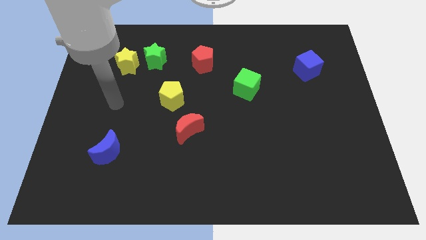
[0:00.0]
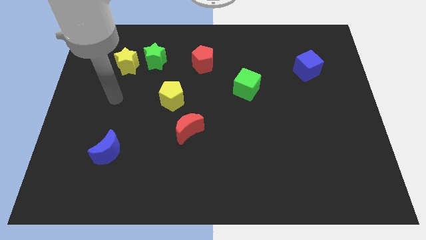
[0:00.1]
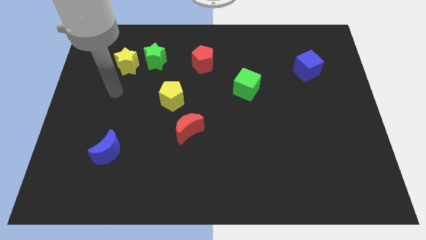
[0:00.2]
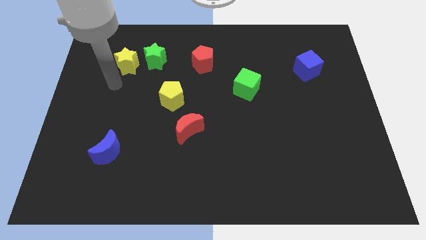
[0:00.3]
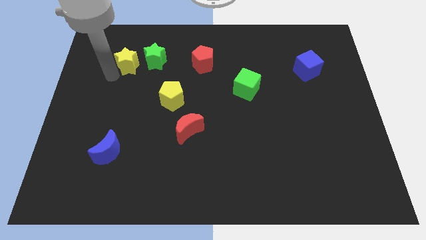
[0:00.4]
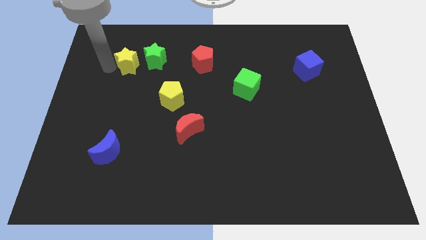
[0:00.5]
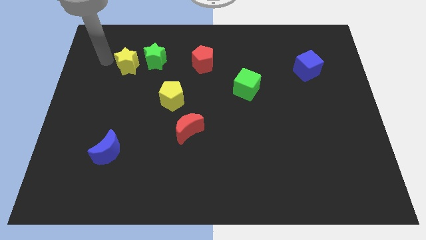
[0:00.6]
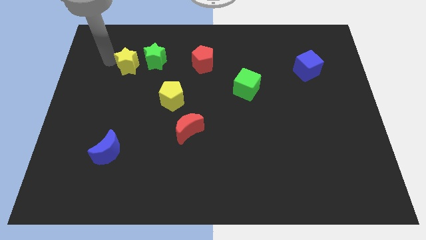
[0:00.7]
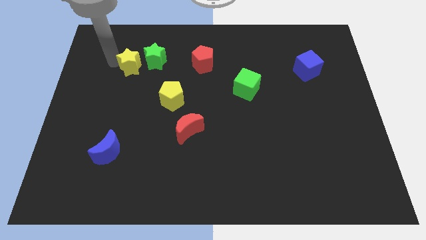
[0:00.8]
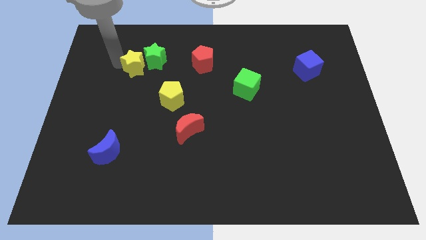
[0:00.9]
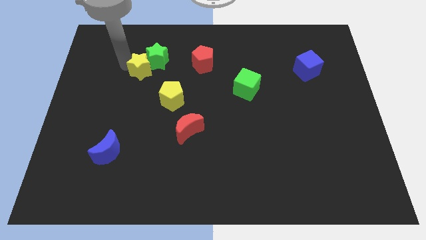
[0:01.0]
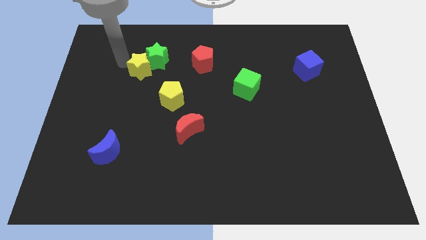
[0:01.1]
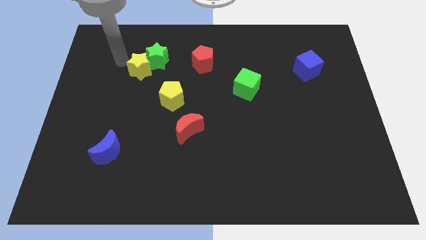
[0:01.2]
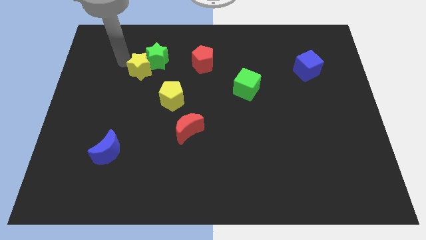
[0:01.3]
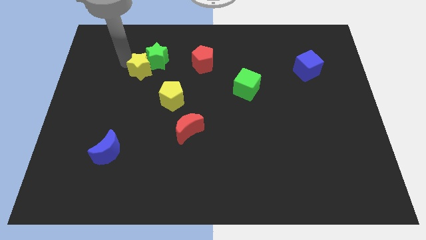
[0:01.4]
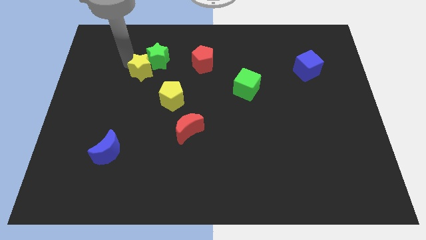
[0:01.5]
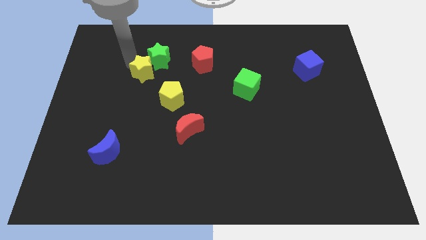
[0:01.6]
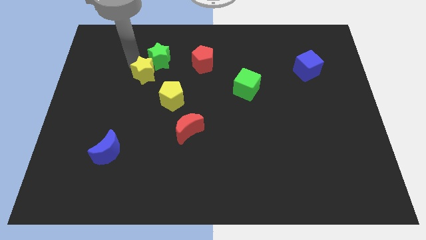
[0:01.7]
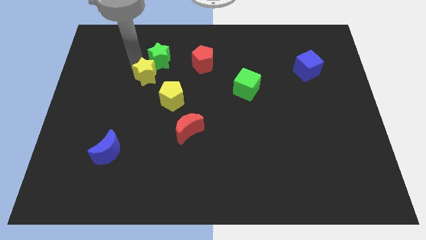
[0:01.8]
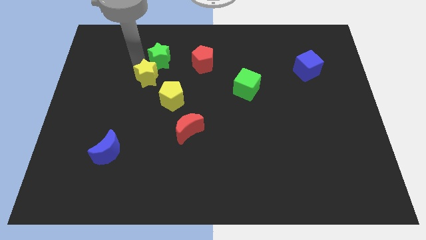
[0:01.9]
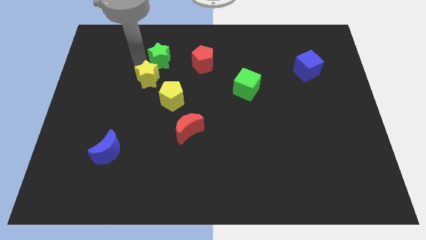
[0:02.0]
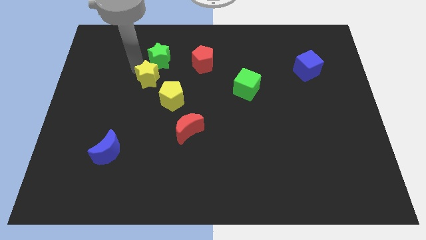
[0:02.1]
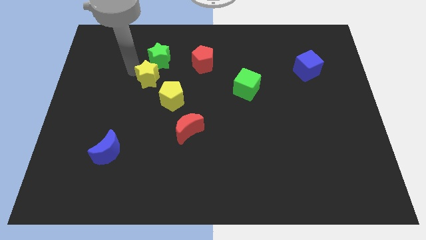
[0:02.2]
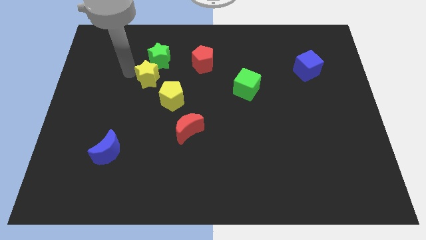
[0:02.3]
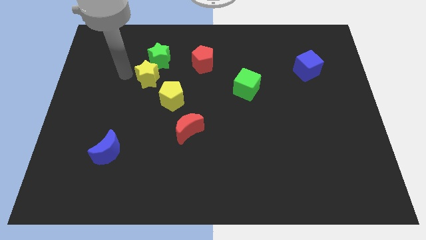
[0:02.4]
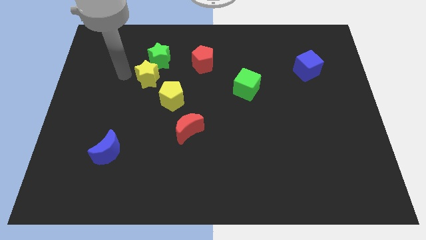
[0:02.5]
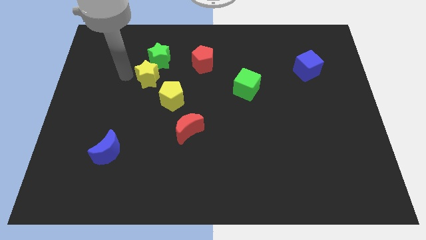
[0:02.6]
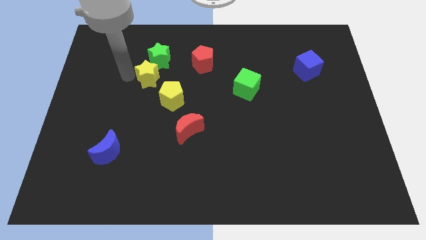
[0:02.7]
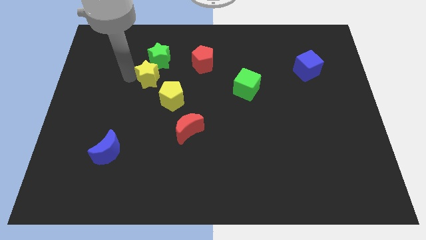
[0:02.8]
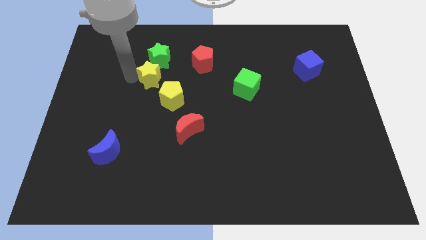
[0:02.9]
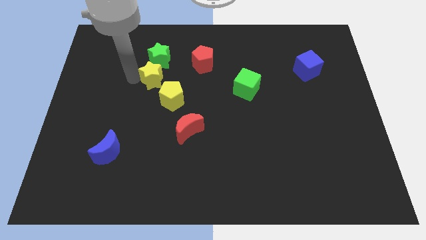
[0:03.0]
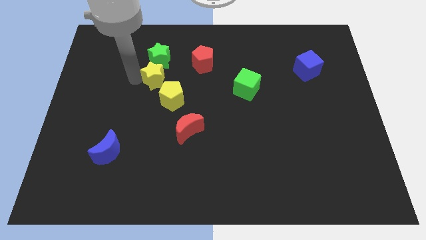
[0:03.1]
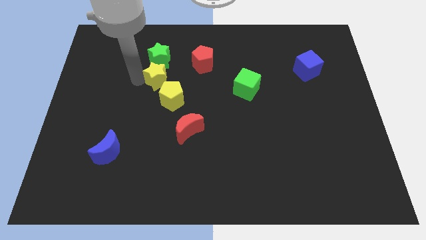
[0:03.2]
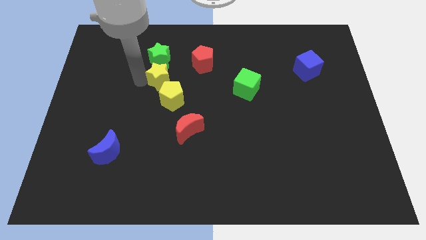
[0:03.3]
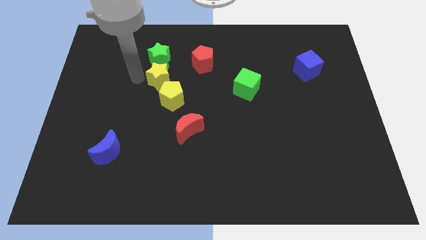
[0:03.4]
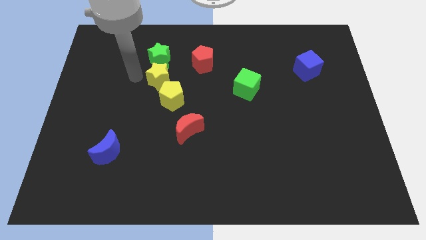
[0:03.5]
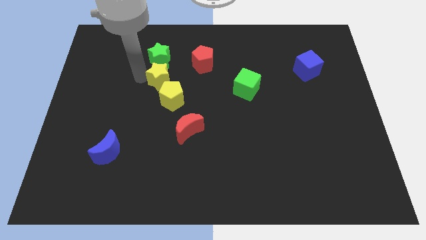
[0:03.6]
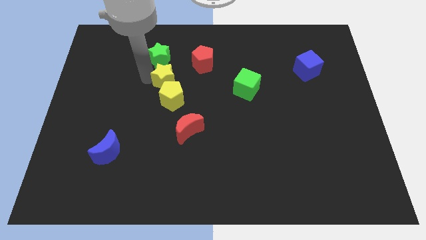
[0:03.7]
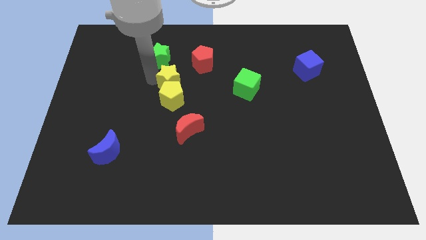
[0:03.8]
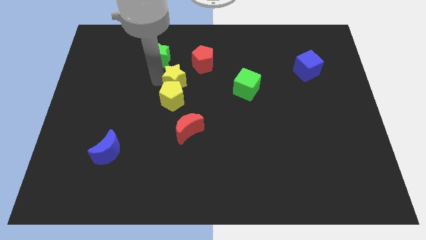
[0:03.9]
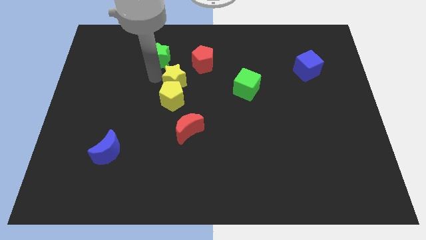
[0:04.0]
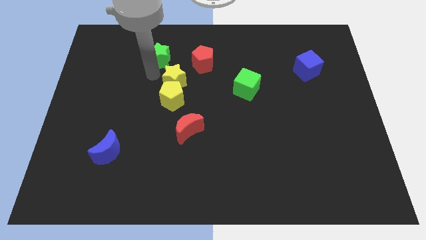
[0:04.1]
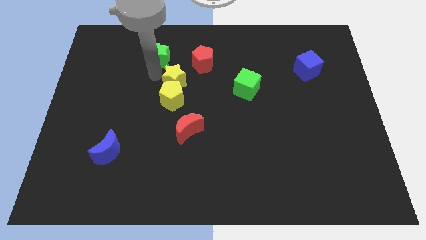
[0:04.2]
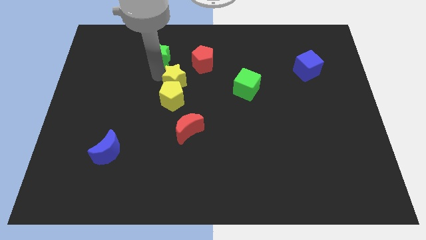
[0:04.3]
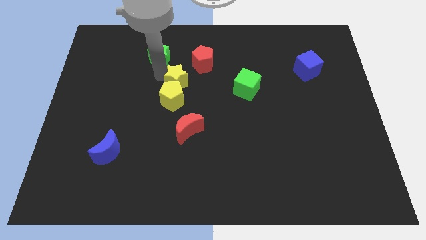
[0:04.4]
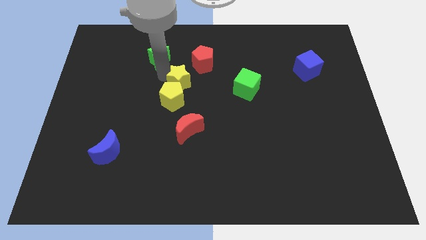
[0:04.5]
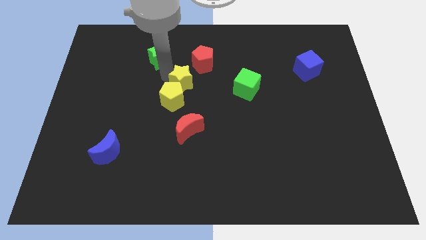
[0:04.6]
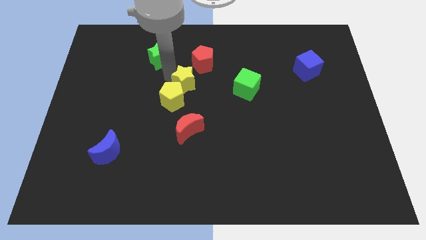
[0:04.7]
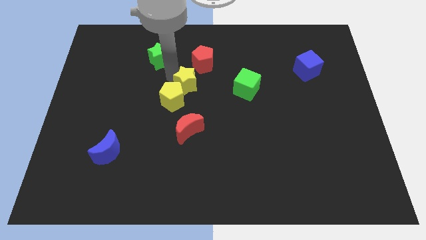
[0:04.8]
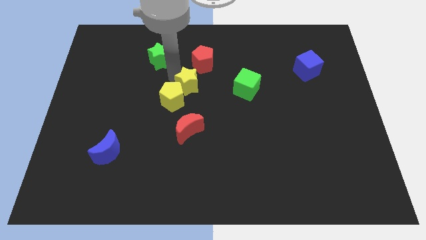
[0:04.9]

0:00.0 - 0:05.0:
push the yellow star to the right of the yellow pentagon
